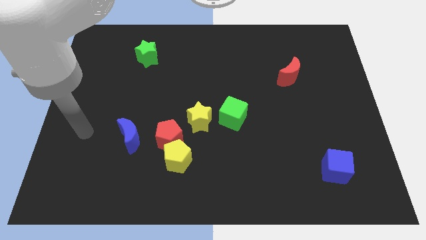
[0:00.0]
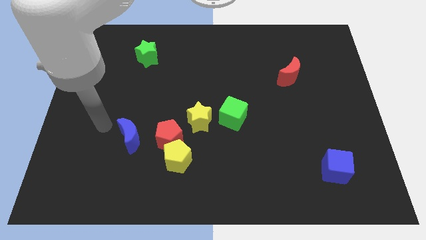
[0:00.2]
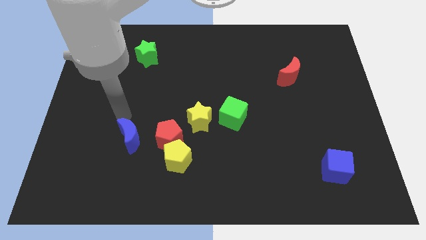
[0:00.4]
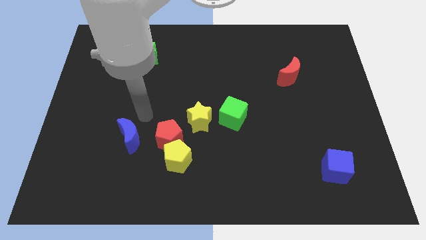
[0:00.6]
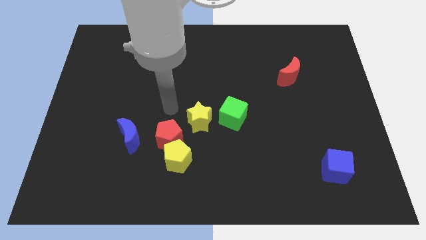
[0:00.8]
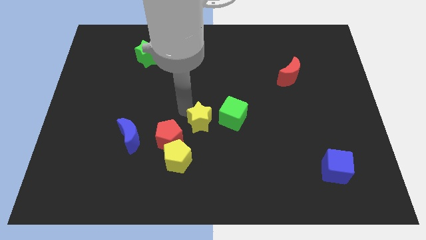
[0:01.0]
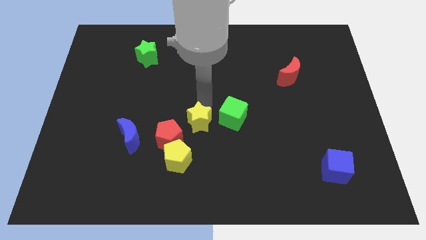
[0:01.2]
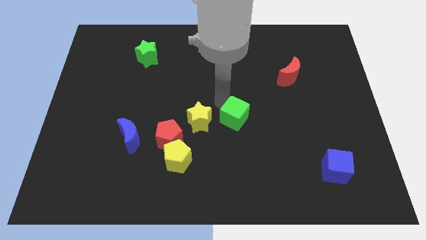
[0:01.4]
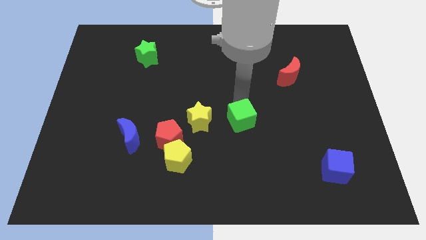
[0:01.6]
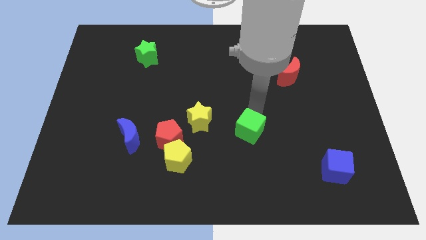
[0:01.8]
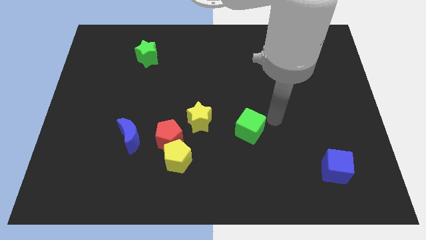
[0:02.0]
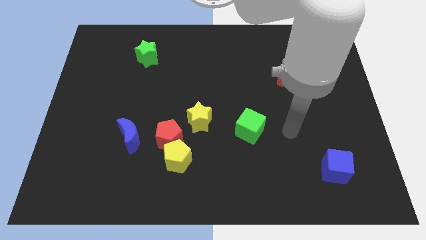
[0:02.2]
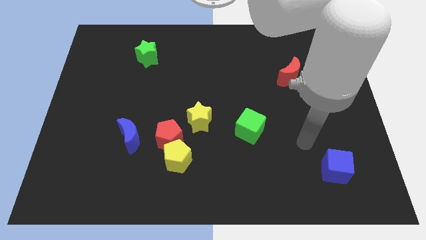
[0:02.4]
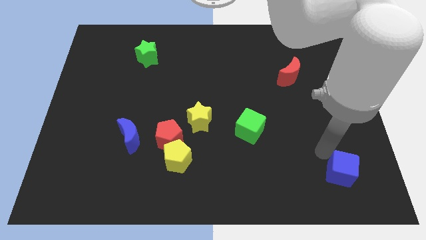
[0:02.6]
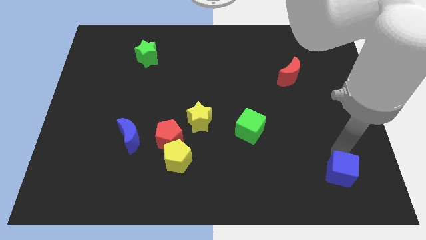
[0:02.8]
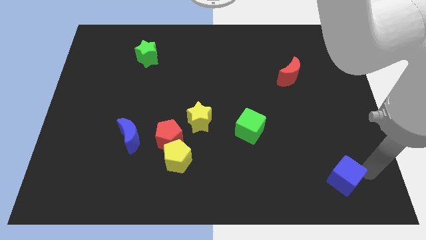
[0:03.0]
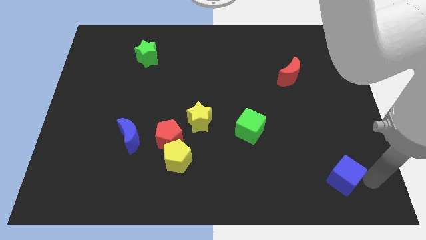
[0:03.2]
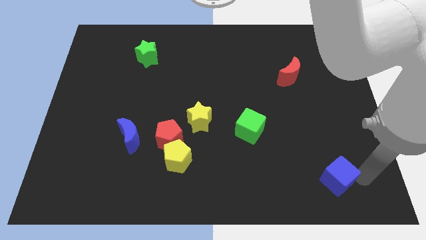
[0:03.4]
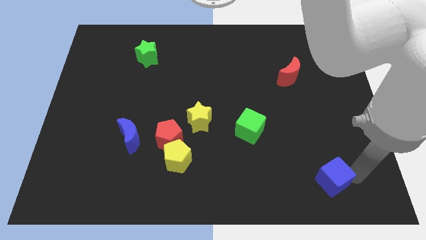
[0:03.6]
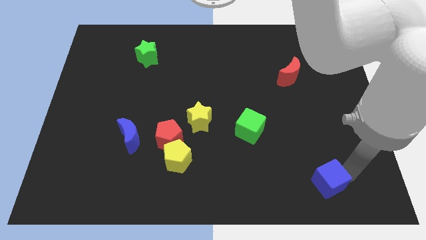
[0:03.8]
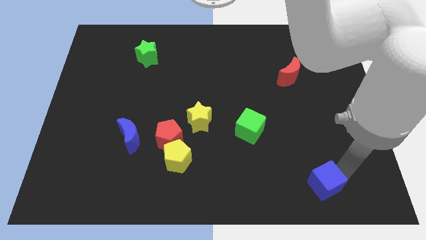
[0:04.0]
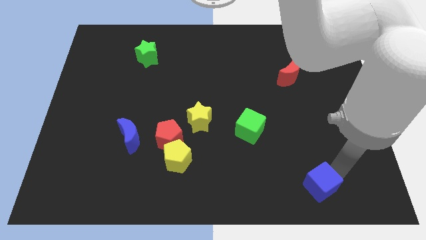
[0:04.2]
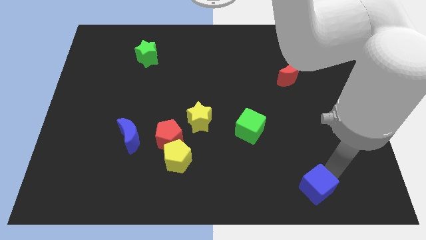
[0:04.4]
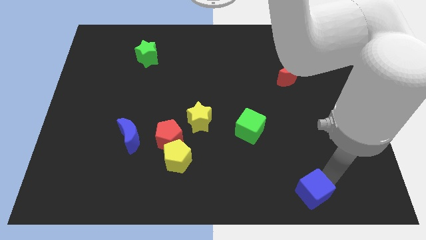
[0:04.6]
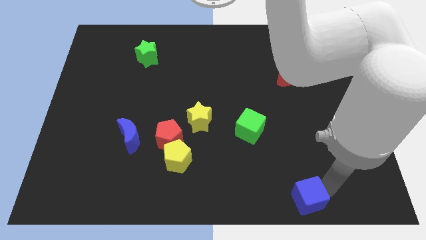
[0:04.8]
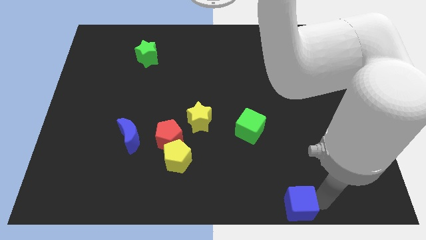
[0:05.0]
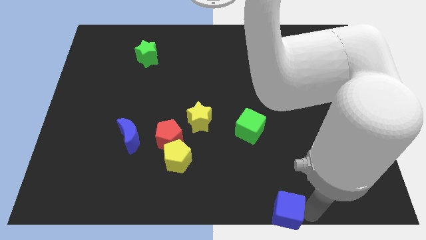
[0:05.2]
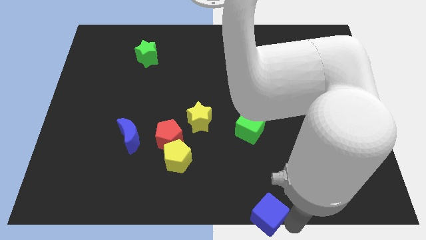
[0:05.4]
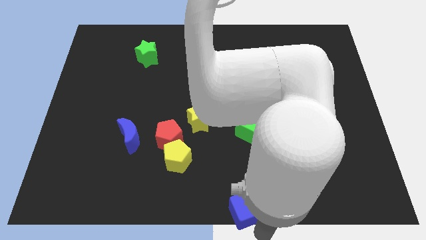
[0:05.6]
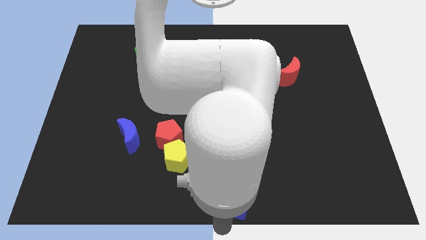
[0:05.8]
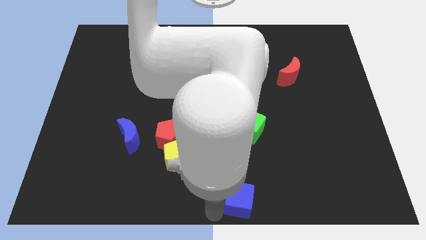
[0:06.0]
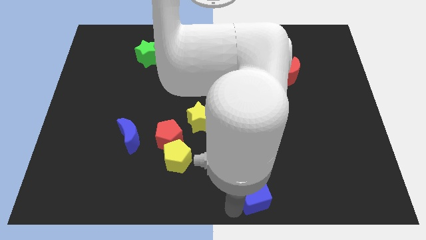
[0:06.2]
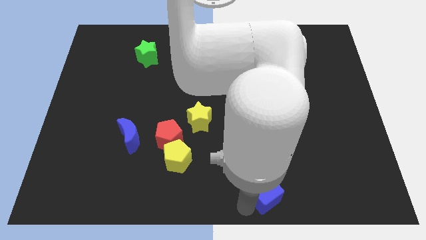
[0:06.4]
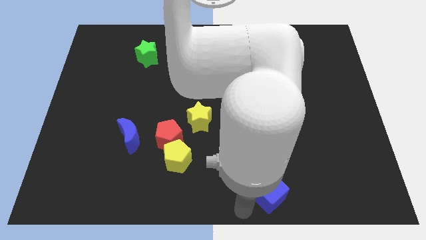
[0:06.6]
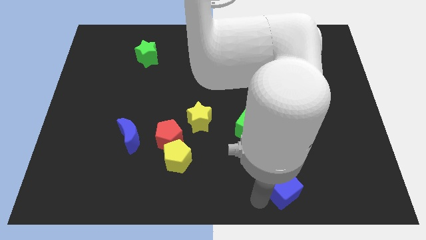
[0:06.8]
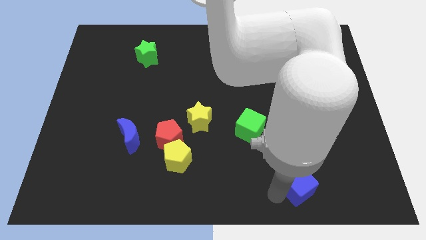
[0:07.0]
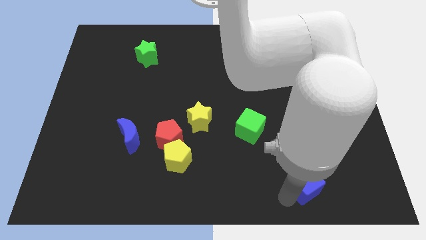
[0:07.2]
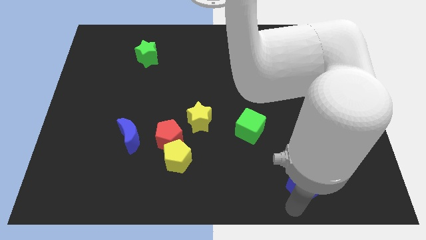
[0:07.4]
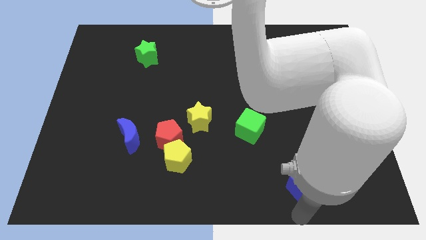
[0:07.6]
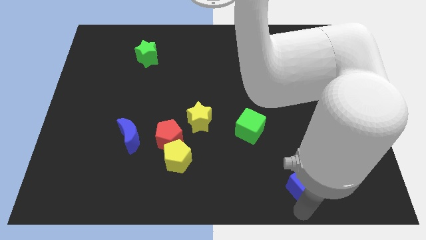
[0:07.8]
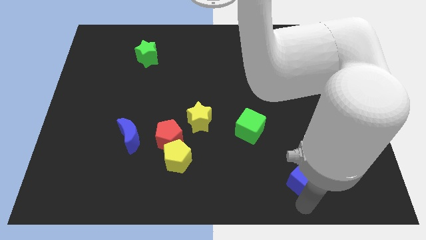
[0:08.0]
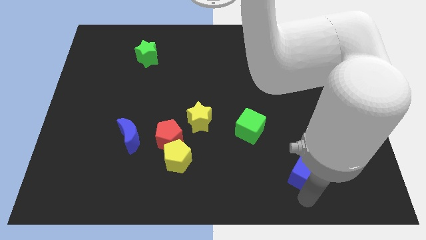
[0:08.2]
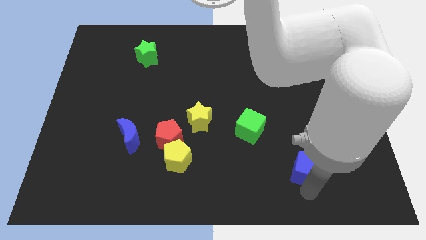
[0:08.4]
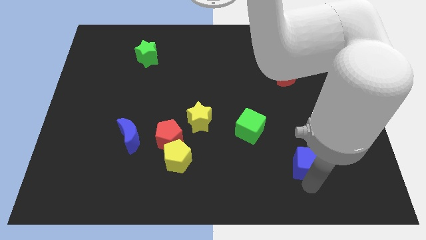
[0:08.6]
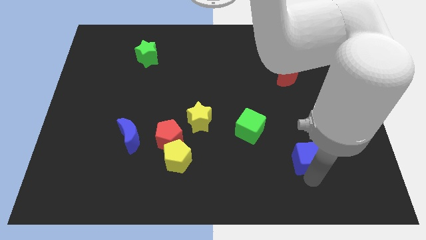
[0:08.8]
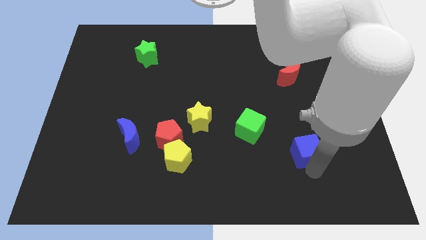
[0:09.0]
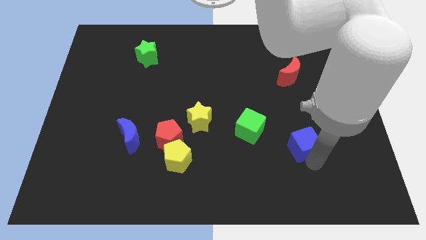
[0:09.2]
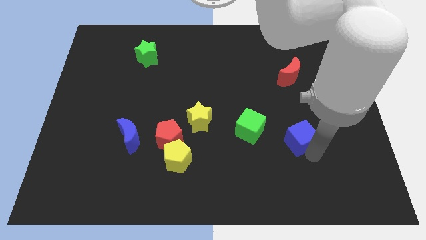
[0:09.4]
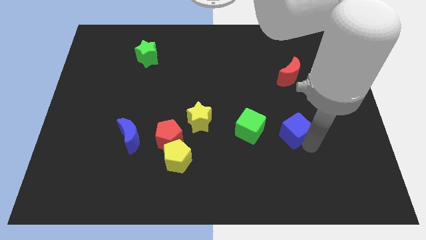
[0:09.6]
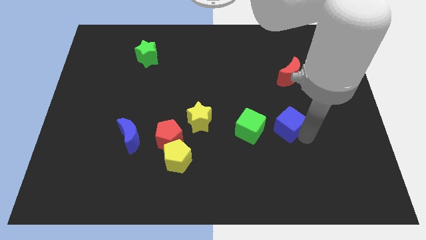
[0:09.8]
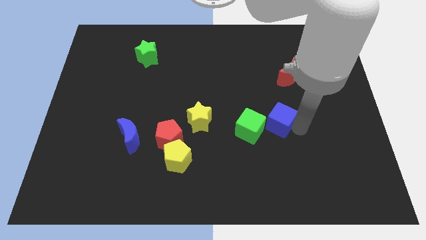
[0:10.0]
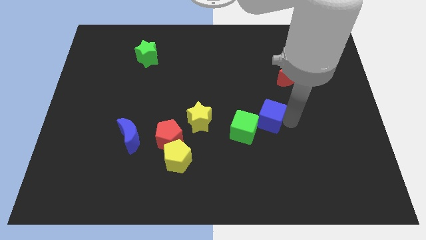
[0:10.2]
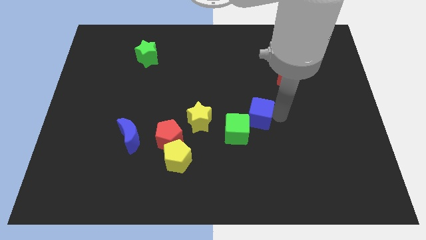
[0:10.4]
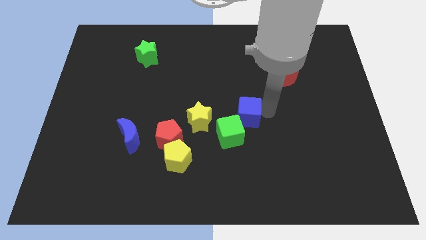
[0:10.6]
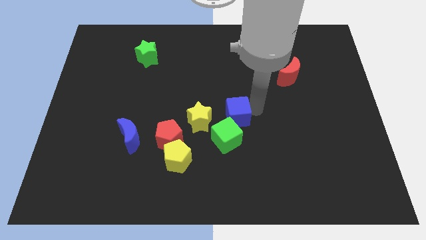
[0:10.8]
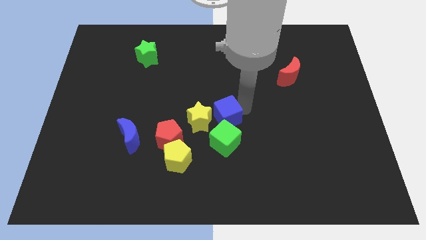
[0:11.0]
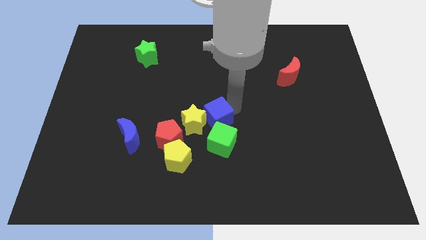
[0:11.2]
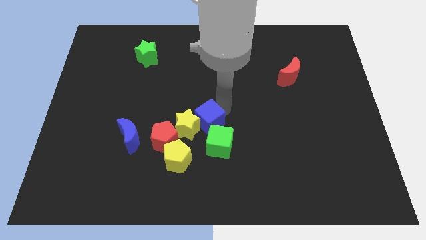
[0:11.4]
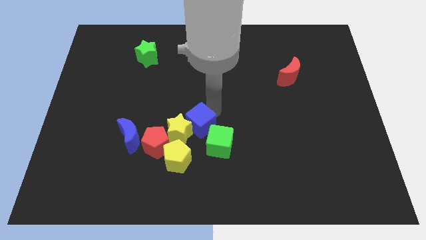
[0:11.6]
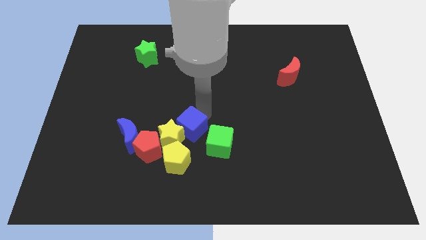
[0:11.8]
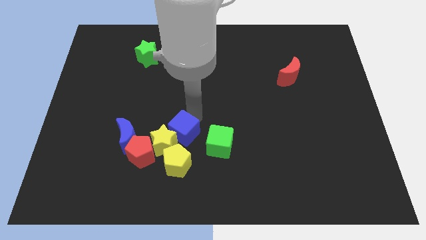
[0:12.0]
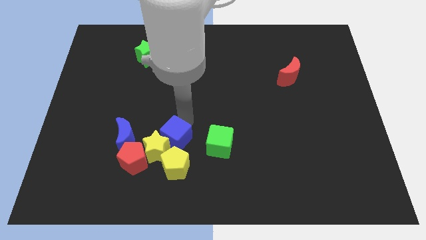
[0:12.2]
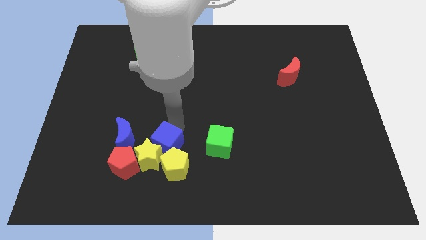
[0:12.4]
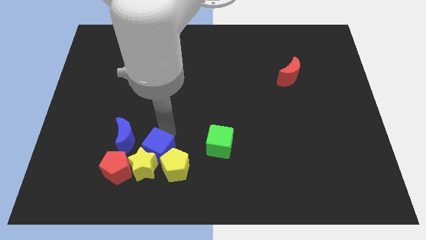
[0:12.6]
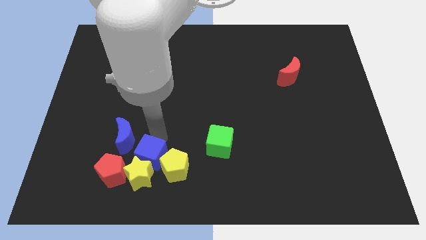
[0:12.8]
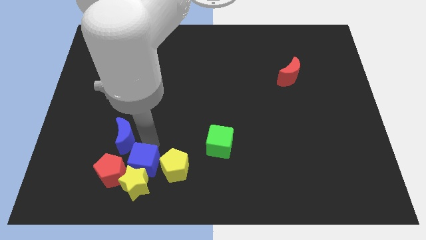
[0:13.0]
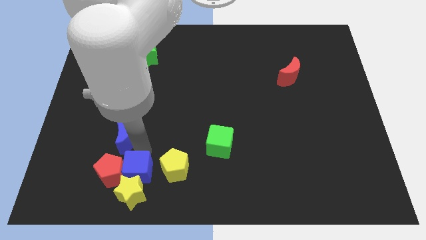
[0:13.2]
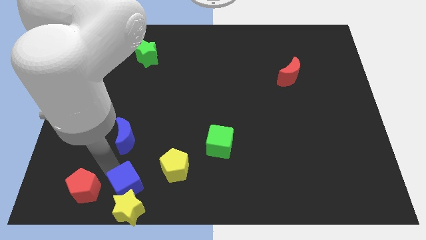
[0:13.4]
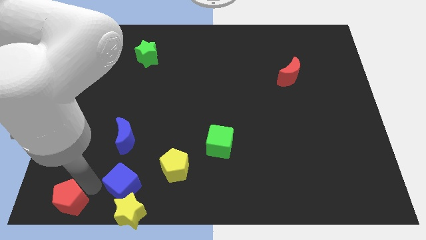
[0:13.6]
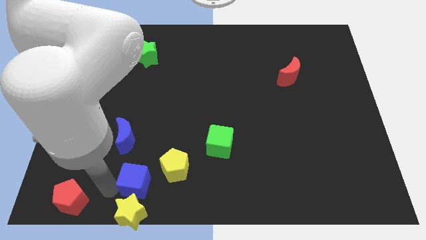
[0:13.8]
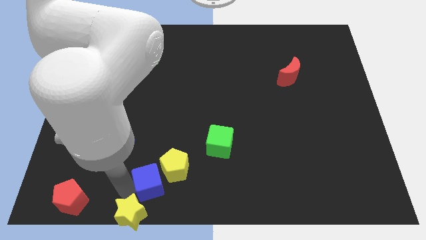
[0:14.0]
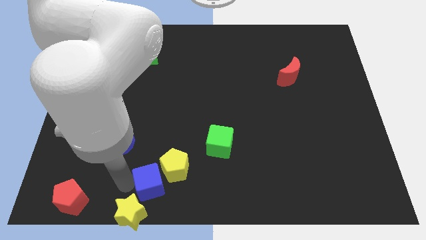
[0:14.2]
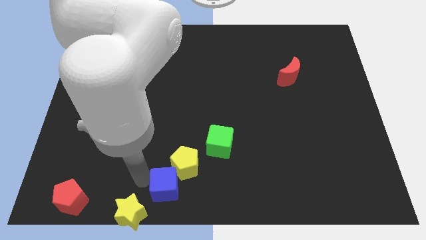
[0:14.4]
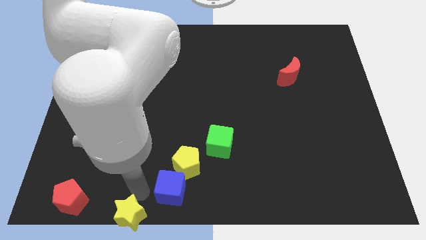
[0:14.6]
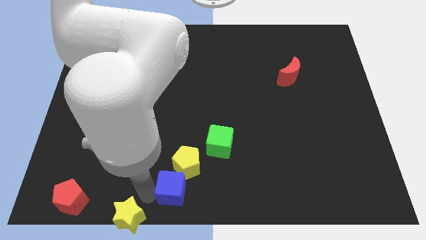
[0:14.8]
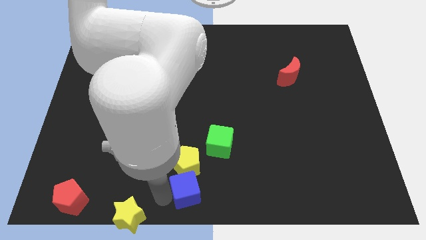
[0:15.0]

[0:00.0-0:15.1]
move the blue cube to the bottom right of the yellow pentagon
